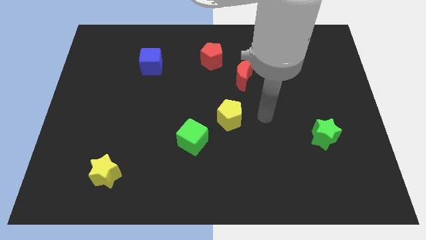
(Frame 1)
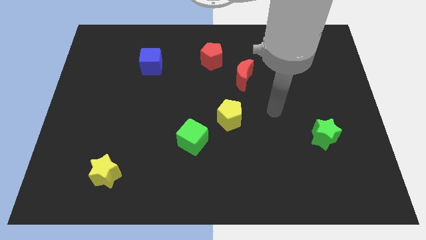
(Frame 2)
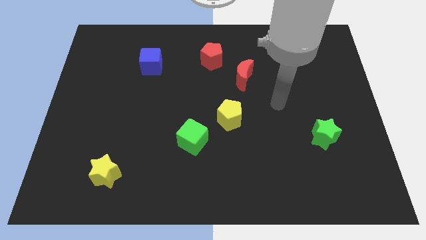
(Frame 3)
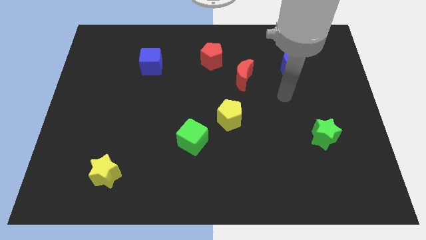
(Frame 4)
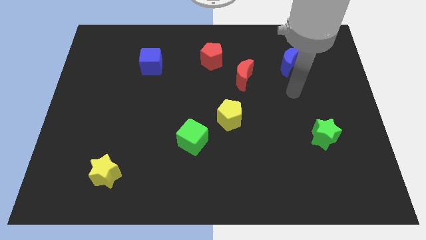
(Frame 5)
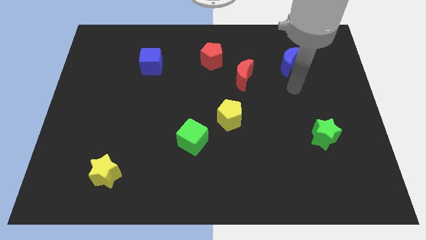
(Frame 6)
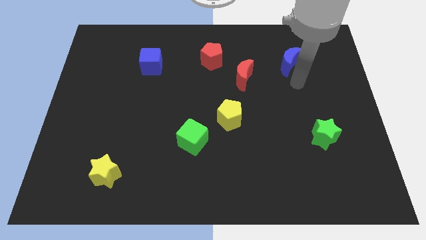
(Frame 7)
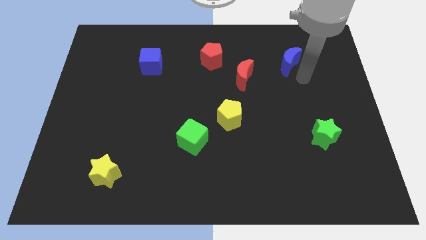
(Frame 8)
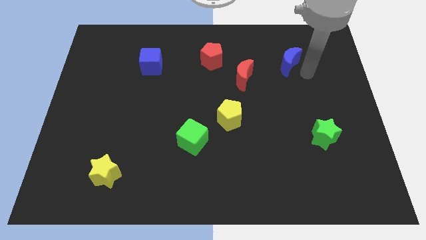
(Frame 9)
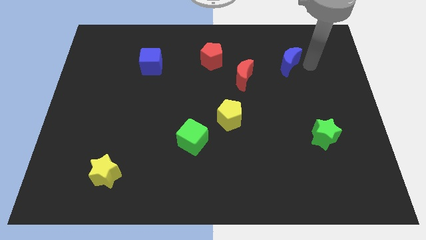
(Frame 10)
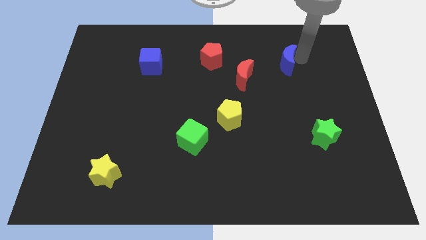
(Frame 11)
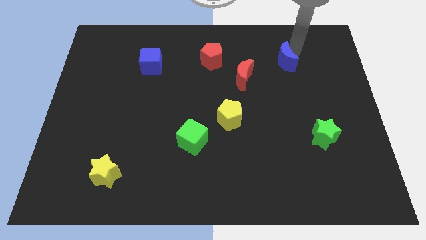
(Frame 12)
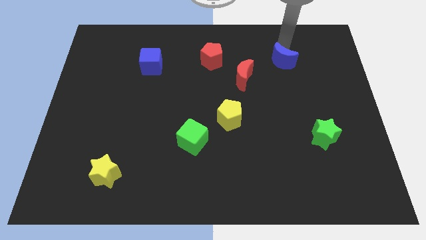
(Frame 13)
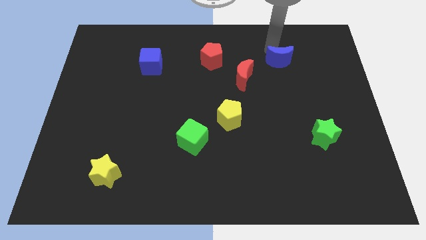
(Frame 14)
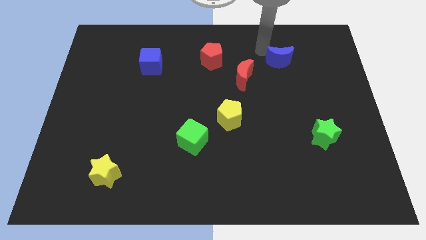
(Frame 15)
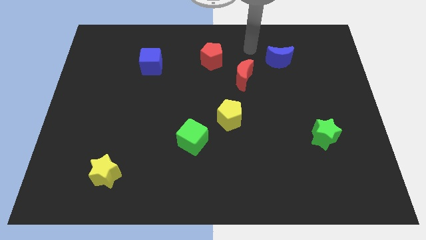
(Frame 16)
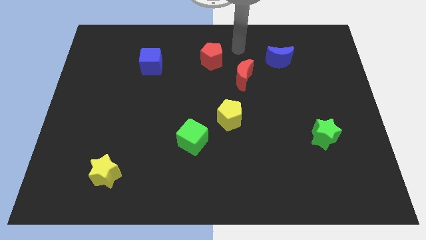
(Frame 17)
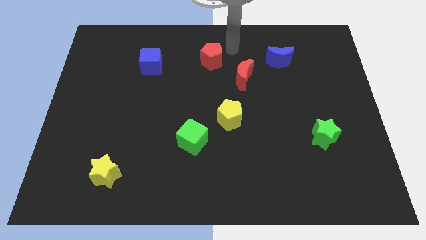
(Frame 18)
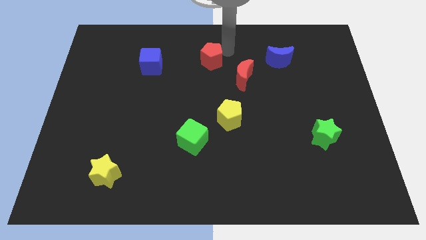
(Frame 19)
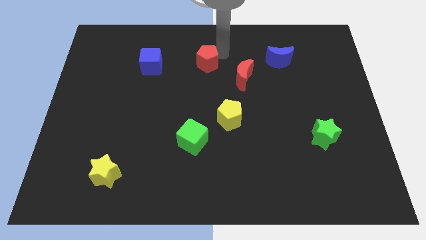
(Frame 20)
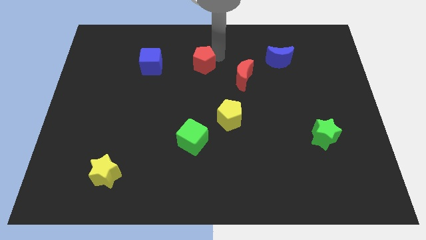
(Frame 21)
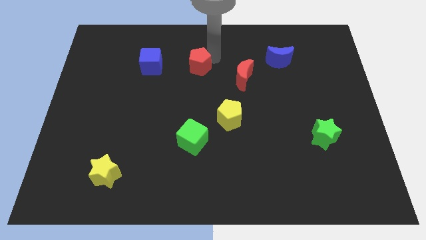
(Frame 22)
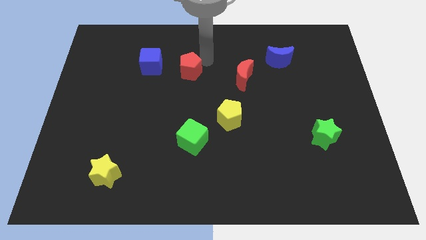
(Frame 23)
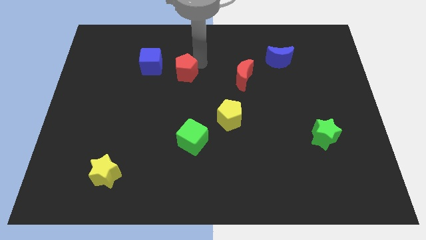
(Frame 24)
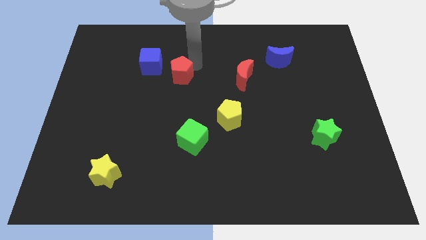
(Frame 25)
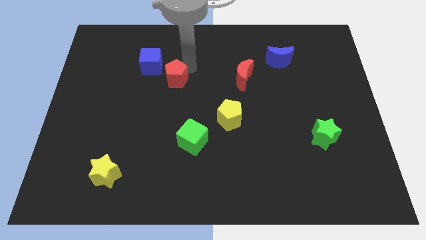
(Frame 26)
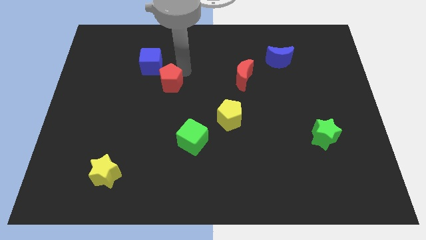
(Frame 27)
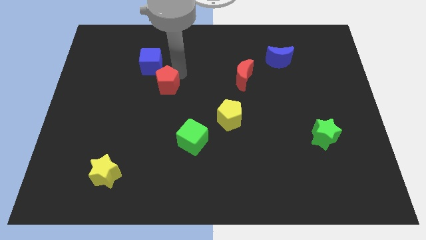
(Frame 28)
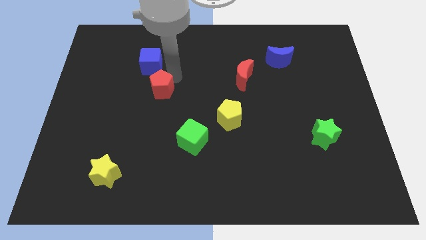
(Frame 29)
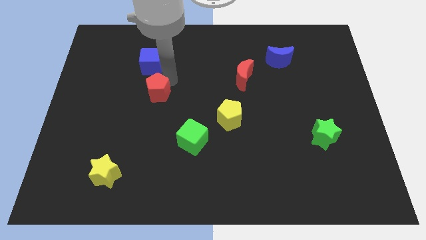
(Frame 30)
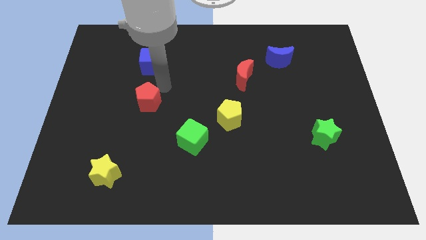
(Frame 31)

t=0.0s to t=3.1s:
slide the red pentagon downwards and then to the left

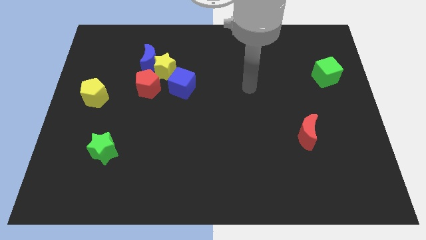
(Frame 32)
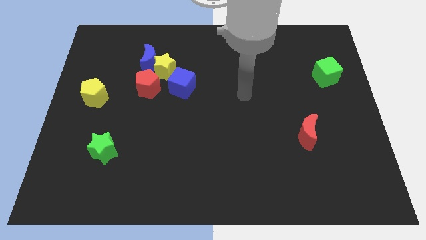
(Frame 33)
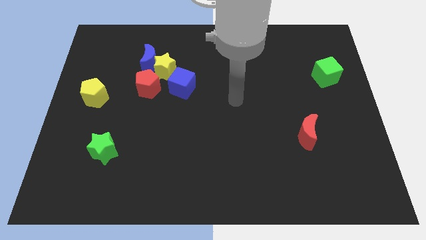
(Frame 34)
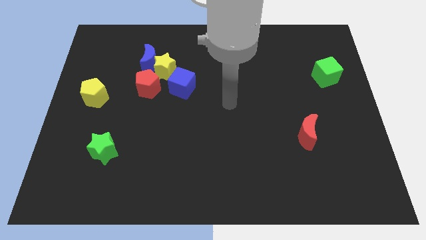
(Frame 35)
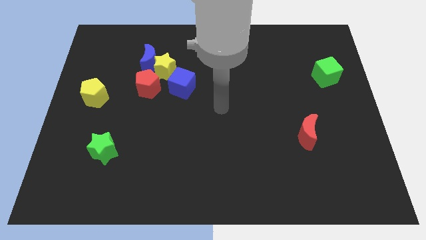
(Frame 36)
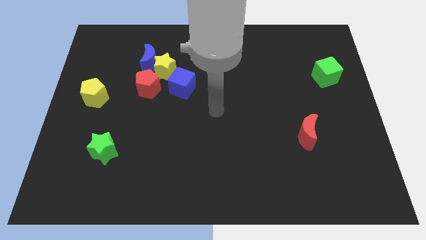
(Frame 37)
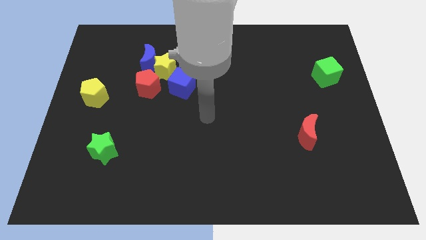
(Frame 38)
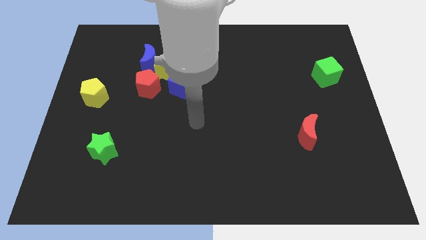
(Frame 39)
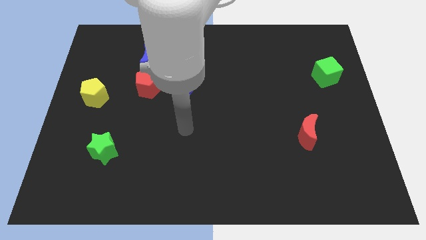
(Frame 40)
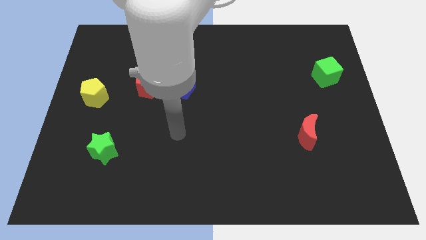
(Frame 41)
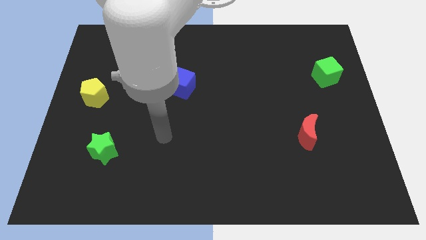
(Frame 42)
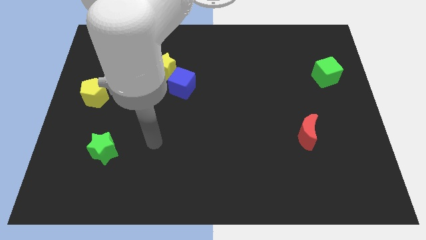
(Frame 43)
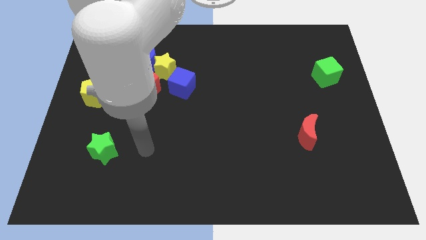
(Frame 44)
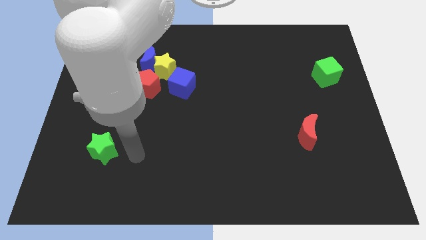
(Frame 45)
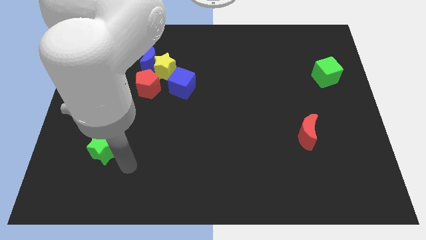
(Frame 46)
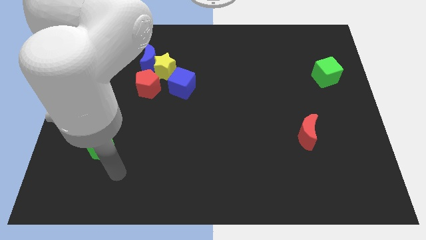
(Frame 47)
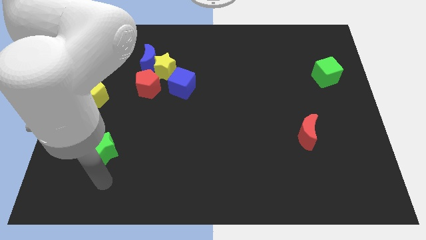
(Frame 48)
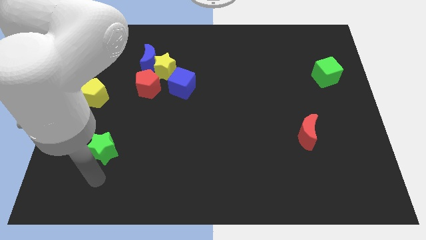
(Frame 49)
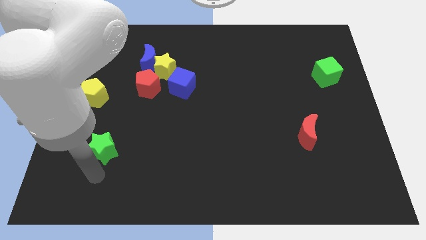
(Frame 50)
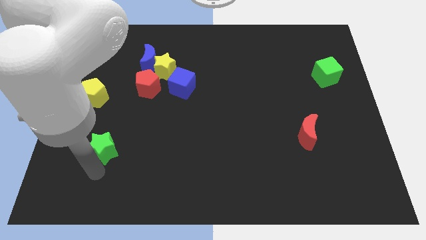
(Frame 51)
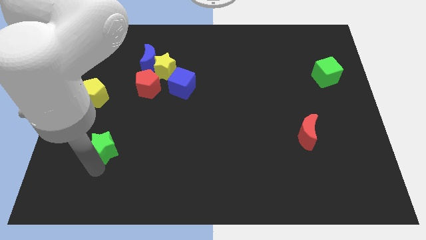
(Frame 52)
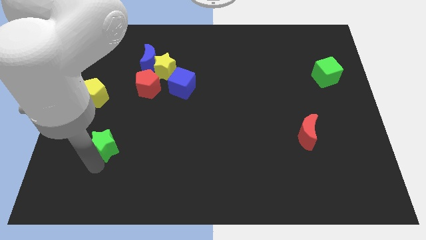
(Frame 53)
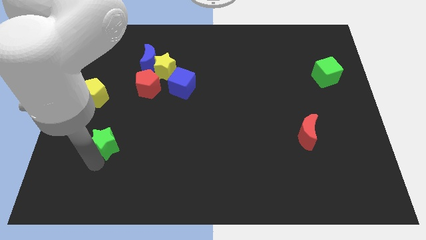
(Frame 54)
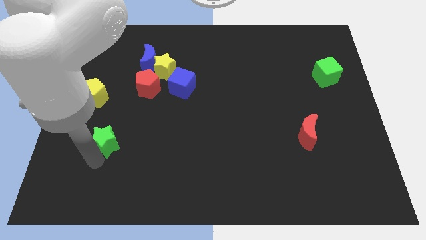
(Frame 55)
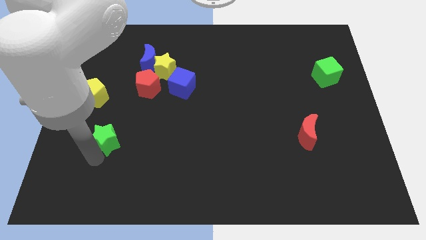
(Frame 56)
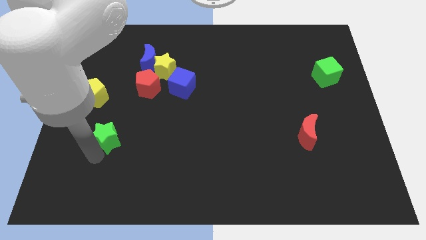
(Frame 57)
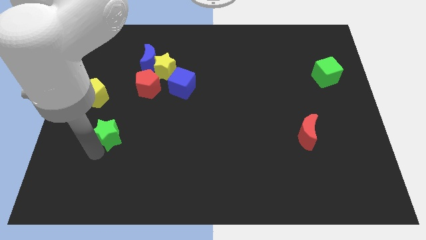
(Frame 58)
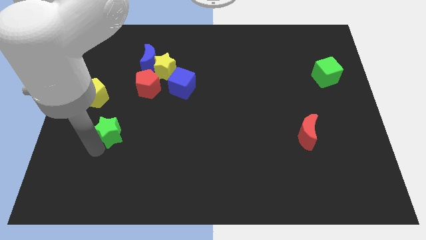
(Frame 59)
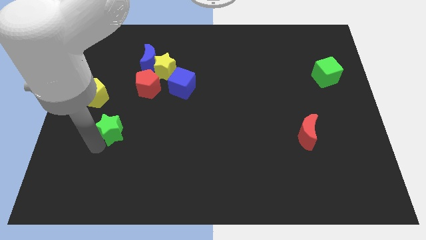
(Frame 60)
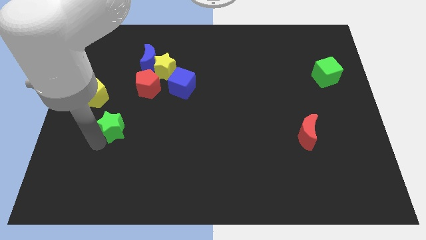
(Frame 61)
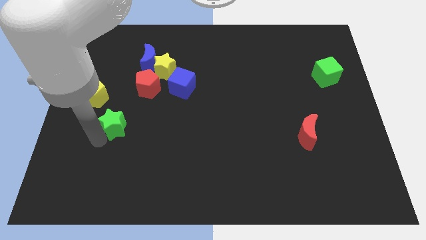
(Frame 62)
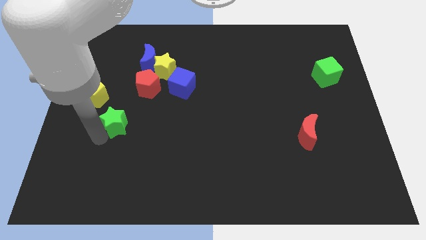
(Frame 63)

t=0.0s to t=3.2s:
slide the green star upwards slightly

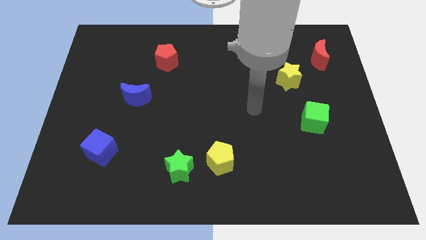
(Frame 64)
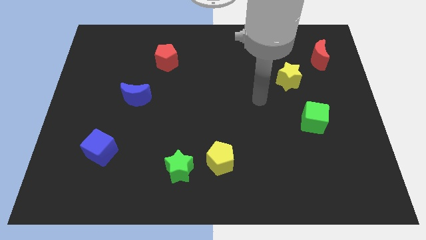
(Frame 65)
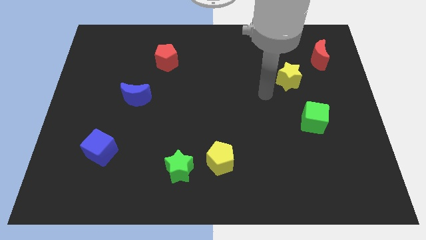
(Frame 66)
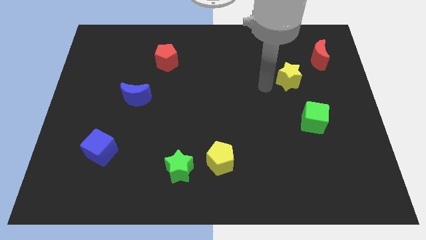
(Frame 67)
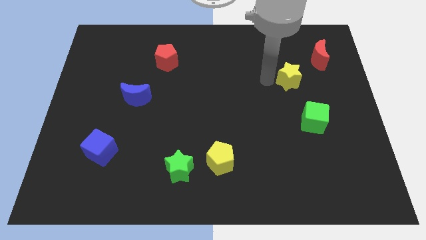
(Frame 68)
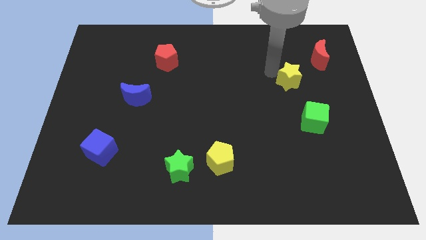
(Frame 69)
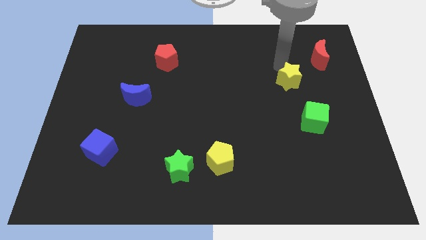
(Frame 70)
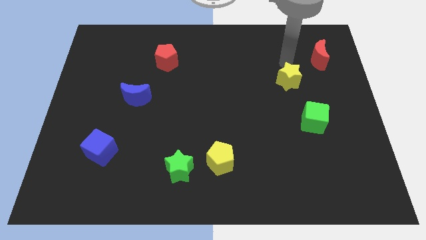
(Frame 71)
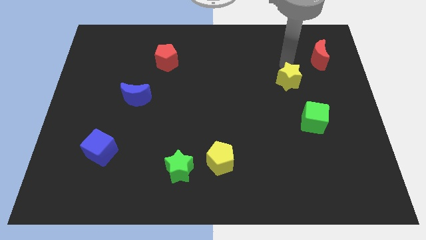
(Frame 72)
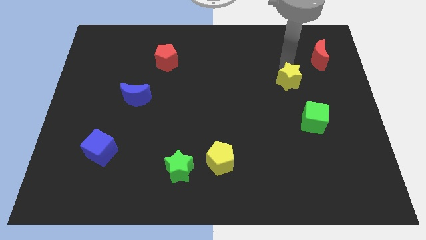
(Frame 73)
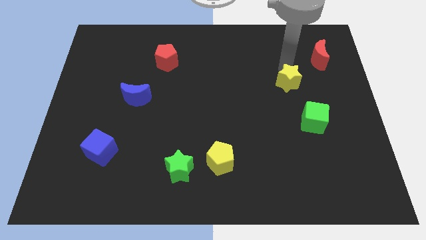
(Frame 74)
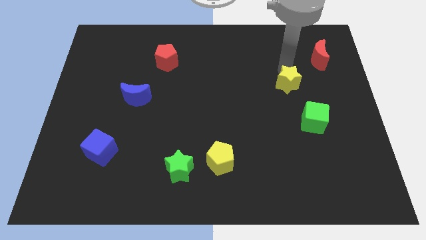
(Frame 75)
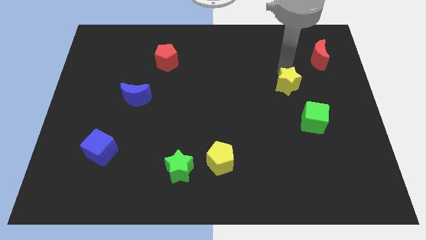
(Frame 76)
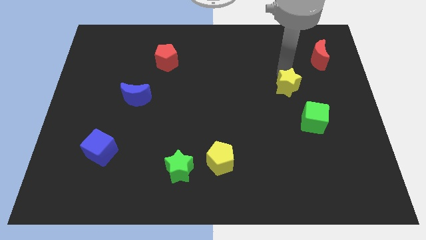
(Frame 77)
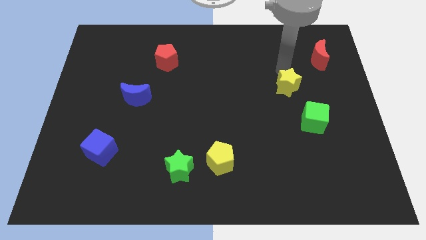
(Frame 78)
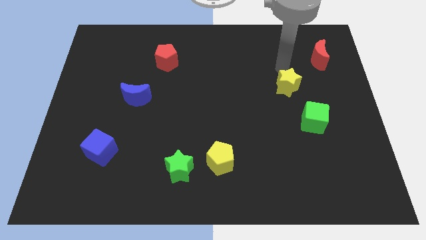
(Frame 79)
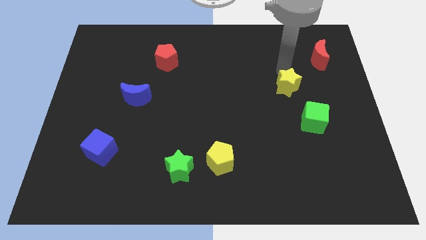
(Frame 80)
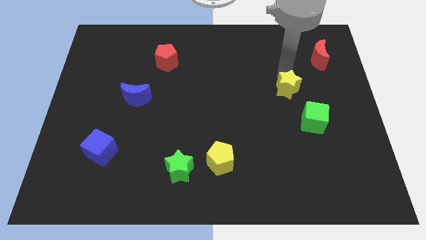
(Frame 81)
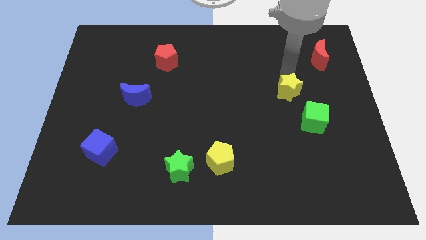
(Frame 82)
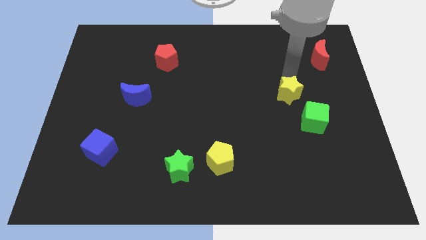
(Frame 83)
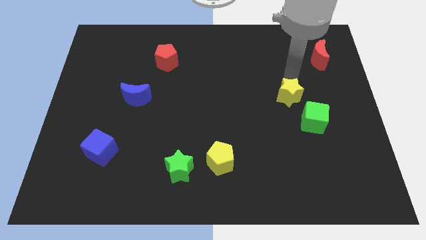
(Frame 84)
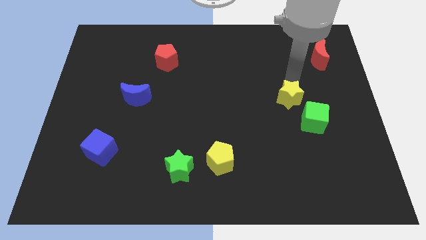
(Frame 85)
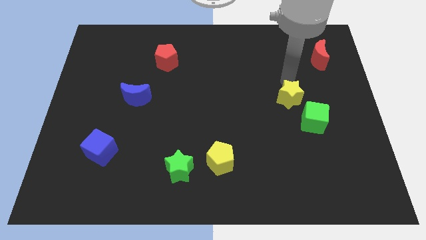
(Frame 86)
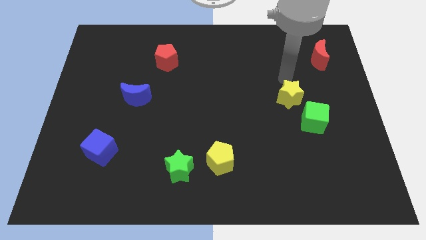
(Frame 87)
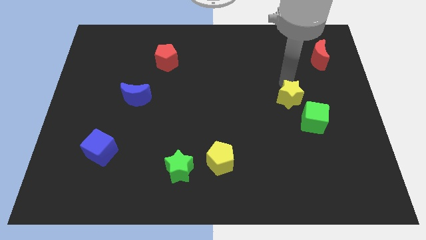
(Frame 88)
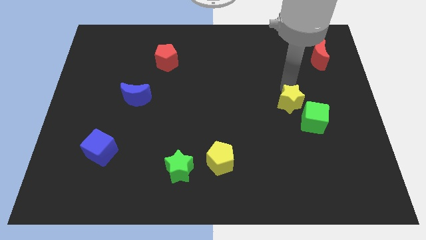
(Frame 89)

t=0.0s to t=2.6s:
move the yellow star slightly down
